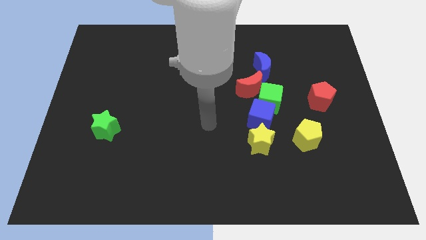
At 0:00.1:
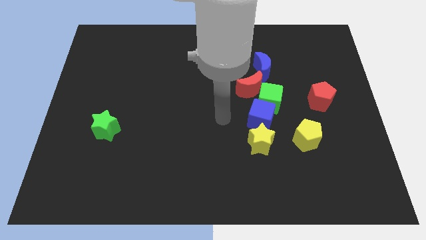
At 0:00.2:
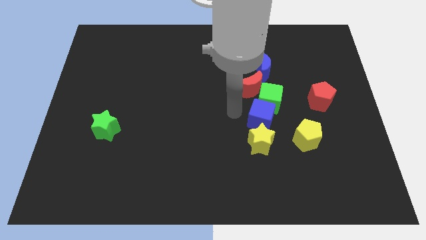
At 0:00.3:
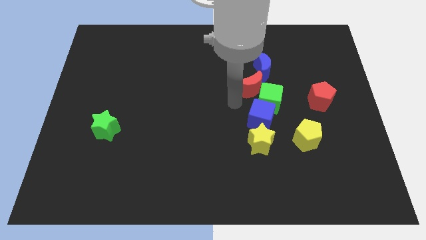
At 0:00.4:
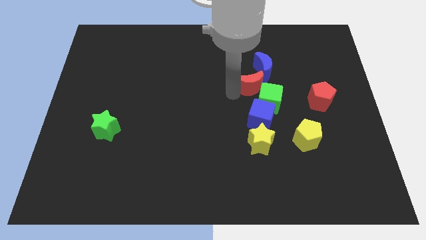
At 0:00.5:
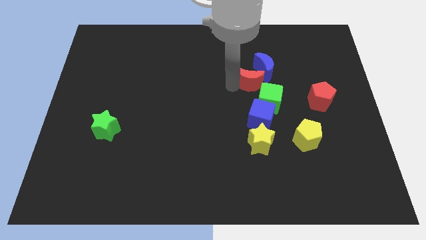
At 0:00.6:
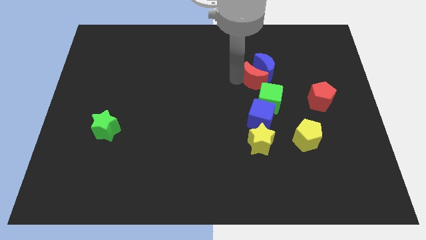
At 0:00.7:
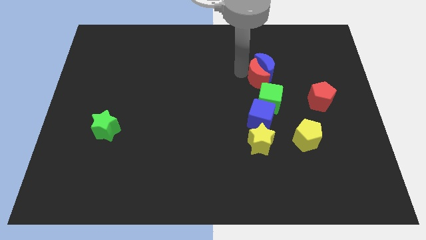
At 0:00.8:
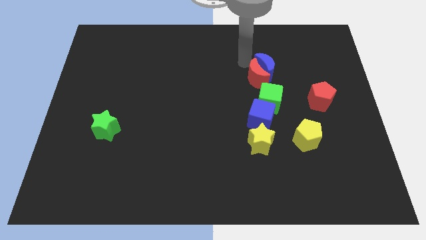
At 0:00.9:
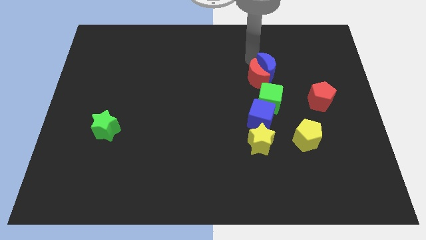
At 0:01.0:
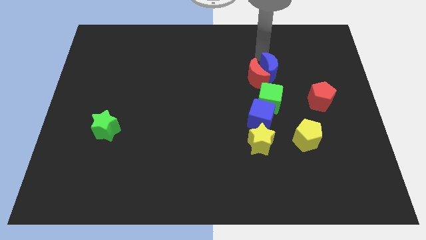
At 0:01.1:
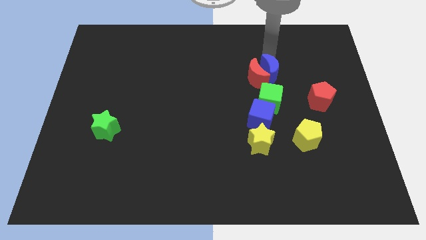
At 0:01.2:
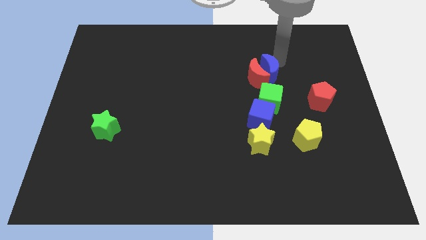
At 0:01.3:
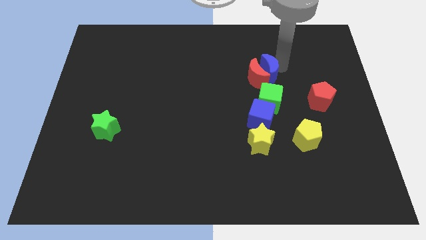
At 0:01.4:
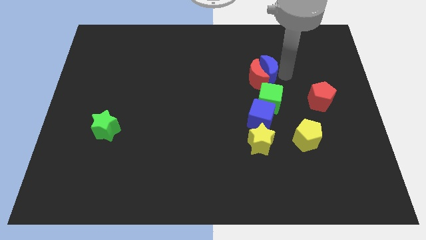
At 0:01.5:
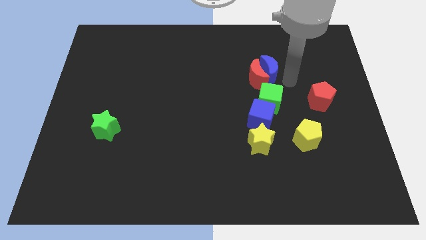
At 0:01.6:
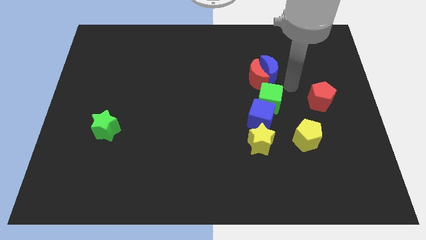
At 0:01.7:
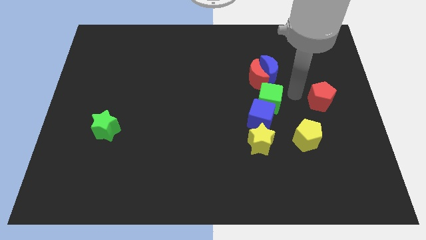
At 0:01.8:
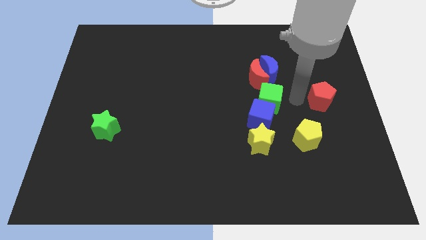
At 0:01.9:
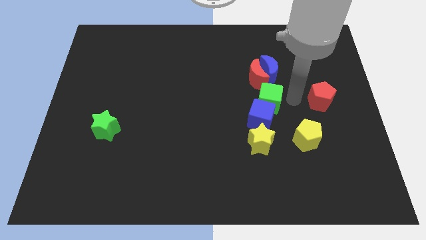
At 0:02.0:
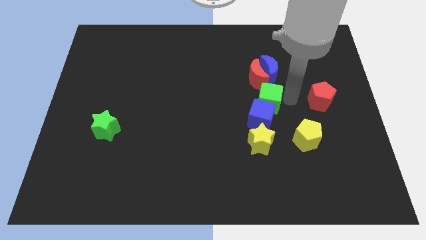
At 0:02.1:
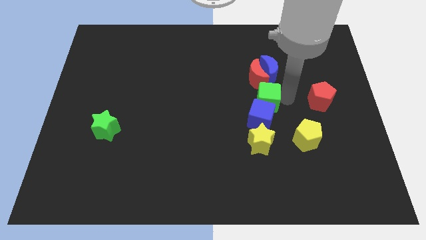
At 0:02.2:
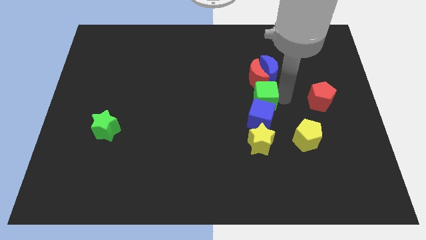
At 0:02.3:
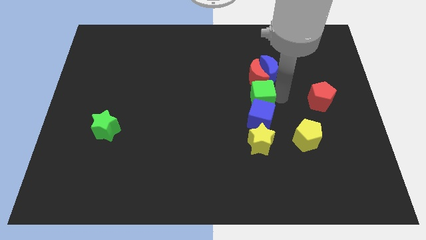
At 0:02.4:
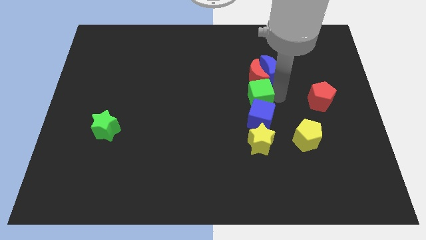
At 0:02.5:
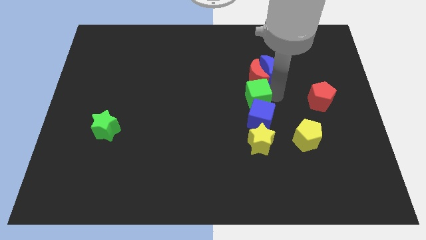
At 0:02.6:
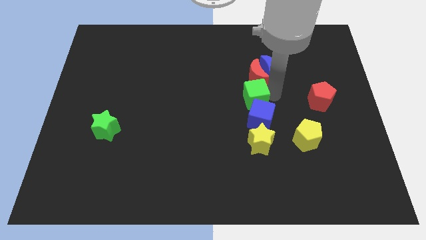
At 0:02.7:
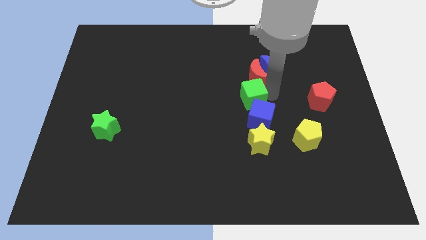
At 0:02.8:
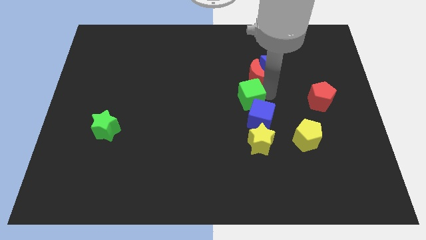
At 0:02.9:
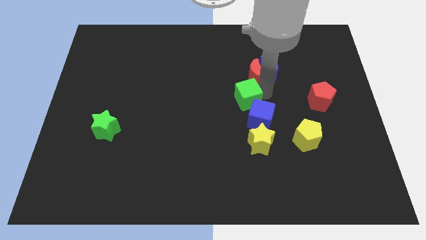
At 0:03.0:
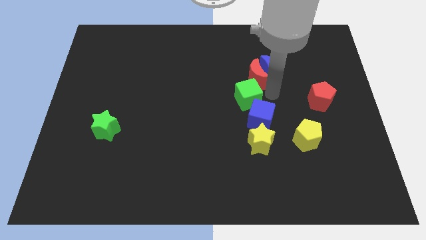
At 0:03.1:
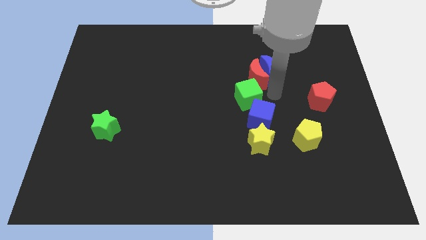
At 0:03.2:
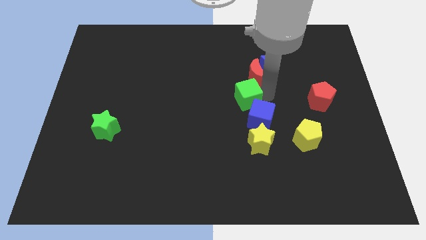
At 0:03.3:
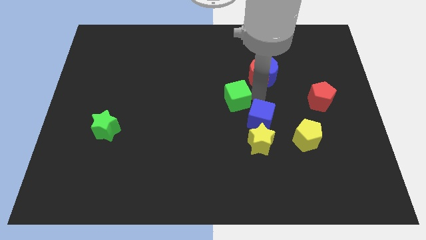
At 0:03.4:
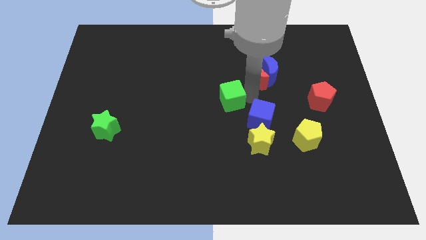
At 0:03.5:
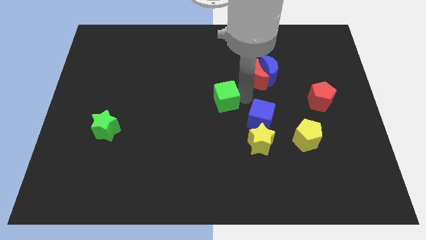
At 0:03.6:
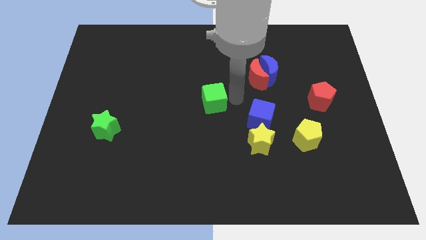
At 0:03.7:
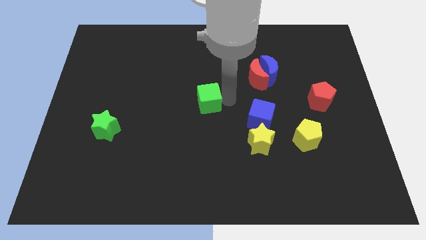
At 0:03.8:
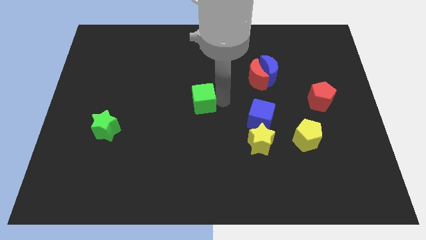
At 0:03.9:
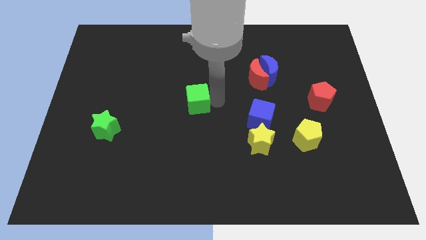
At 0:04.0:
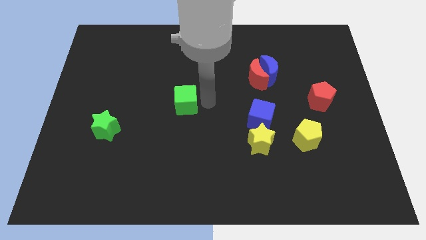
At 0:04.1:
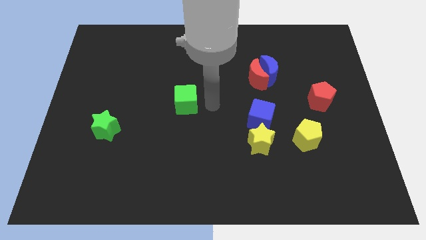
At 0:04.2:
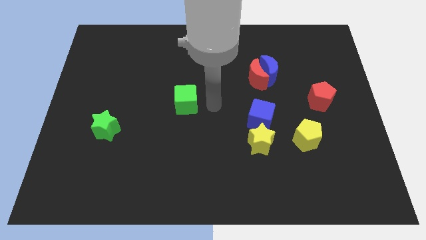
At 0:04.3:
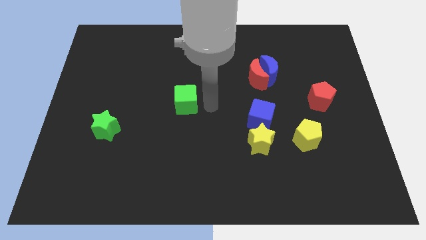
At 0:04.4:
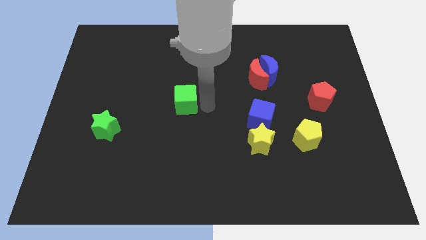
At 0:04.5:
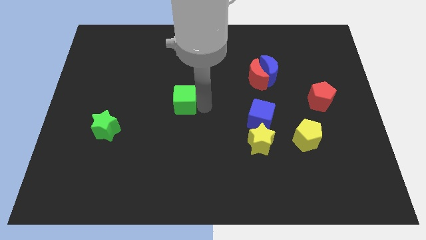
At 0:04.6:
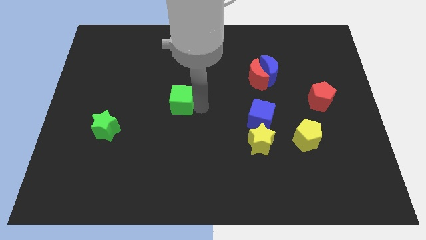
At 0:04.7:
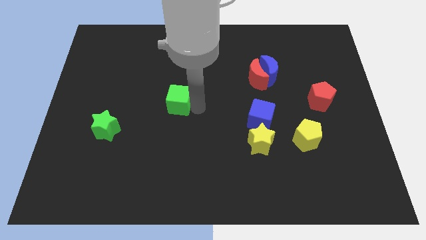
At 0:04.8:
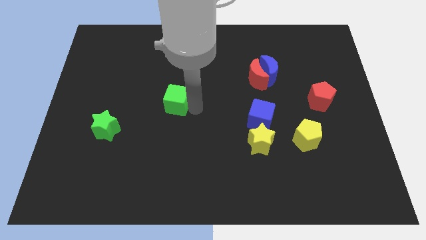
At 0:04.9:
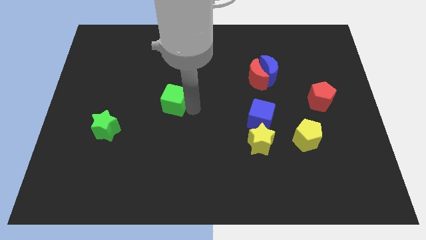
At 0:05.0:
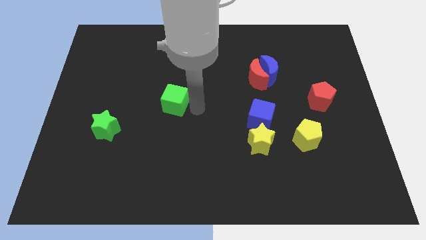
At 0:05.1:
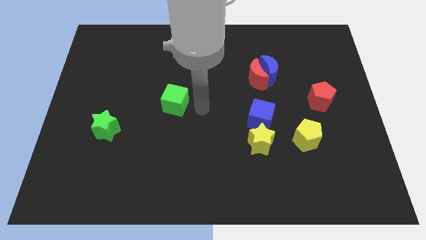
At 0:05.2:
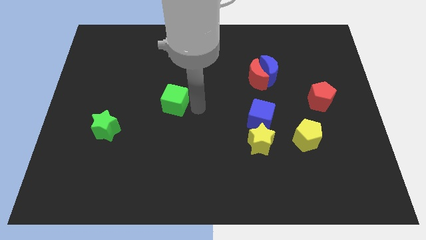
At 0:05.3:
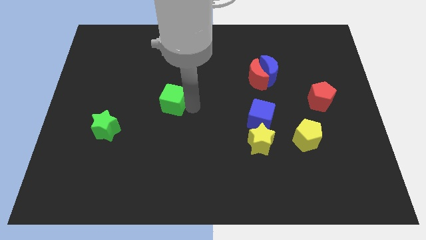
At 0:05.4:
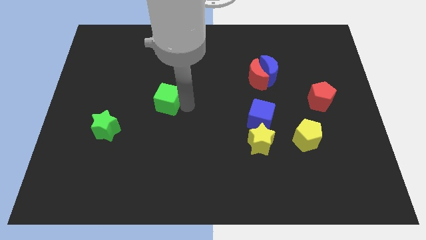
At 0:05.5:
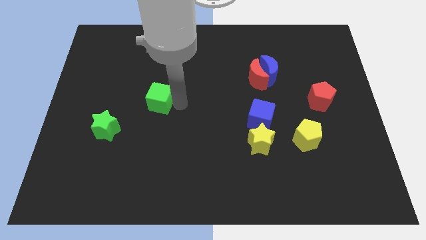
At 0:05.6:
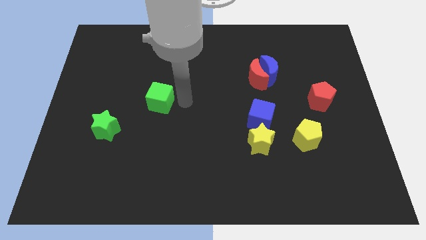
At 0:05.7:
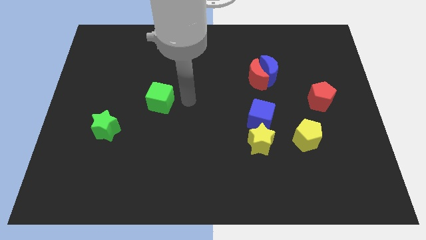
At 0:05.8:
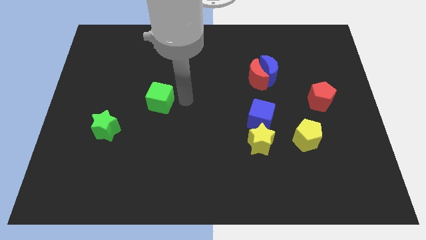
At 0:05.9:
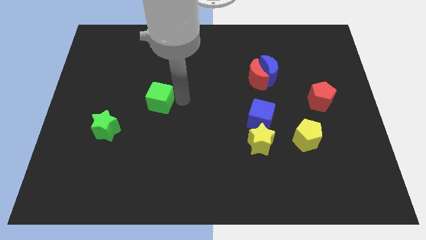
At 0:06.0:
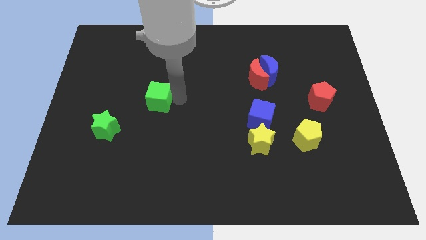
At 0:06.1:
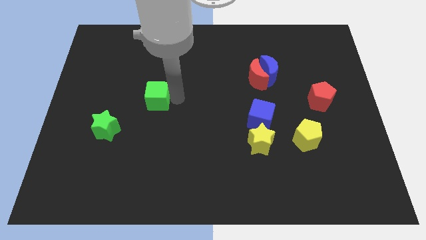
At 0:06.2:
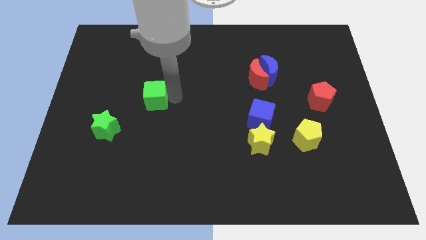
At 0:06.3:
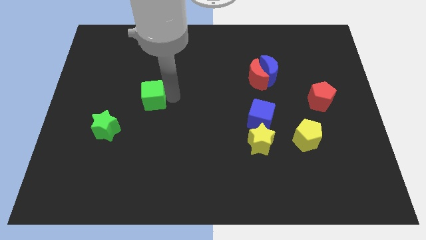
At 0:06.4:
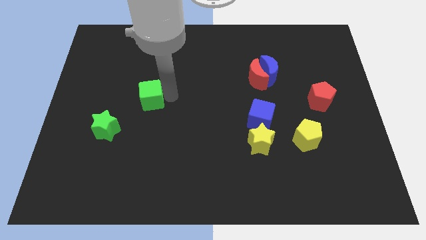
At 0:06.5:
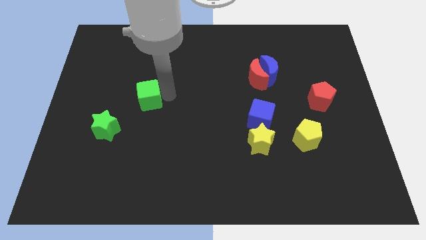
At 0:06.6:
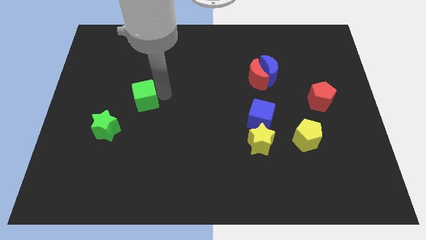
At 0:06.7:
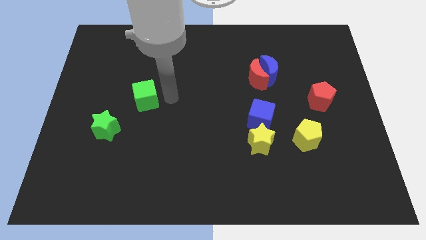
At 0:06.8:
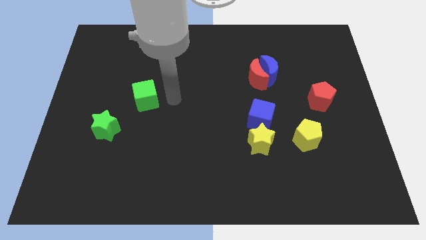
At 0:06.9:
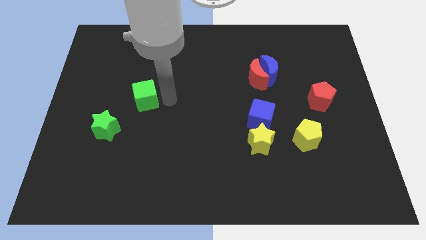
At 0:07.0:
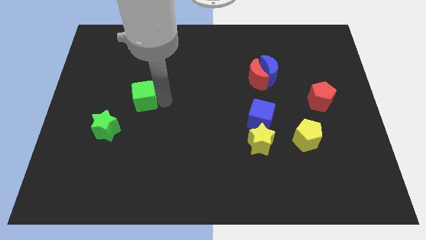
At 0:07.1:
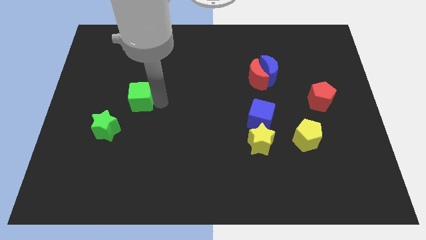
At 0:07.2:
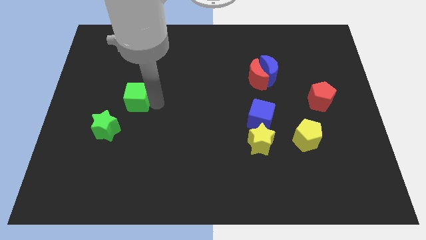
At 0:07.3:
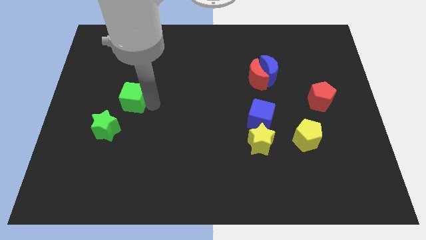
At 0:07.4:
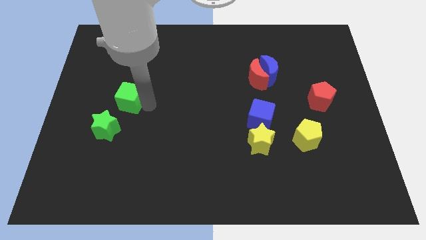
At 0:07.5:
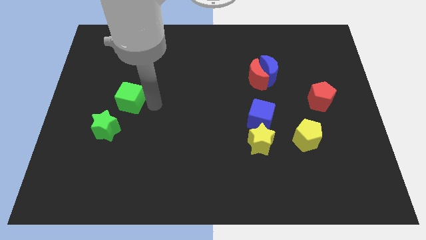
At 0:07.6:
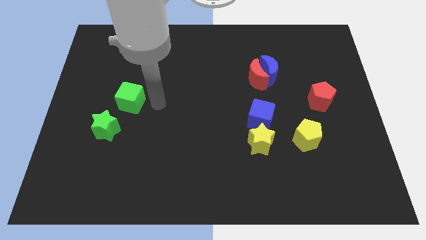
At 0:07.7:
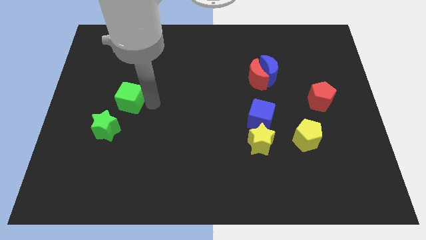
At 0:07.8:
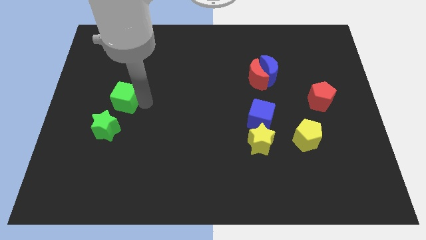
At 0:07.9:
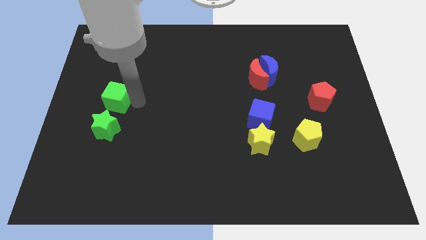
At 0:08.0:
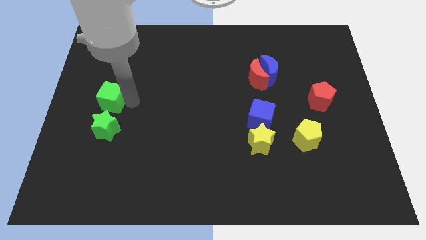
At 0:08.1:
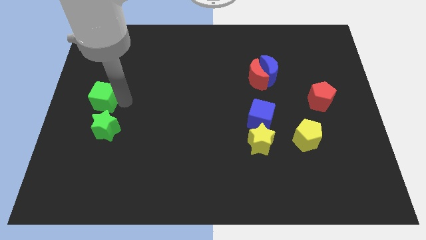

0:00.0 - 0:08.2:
move the green cube to the left side
